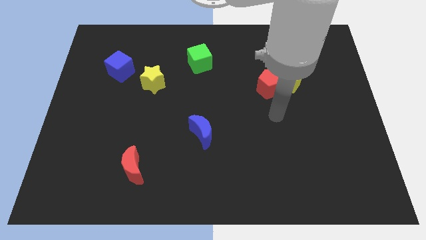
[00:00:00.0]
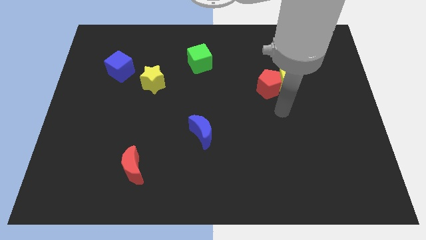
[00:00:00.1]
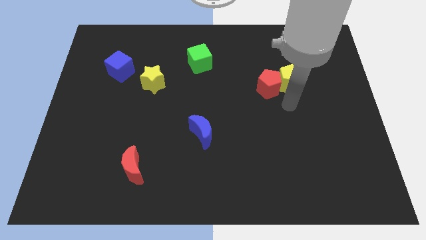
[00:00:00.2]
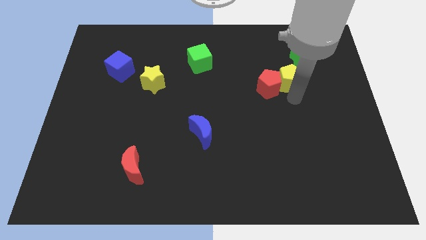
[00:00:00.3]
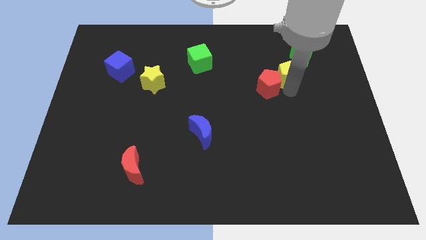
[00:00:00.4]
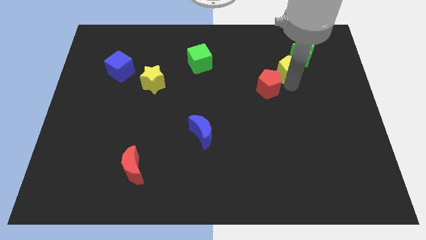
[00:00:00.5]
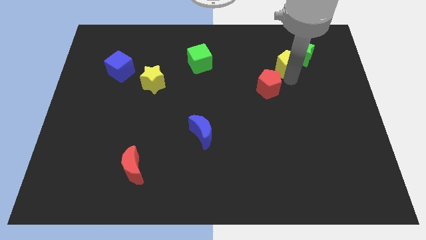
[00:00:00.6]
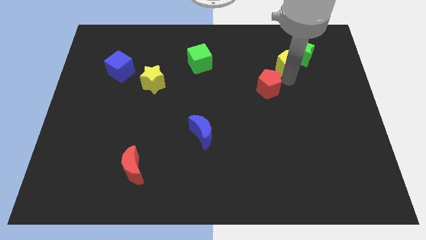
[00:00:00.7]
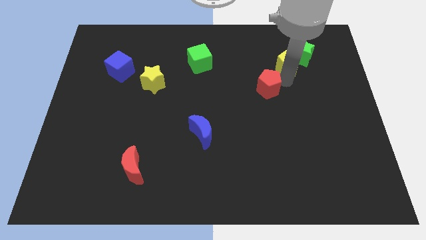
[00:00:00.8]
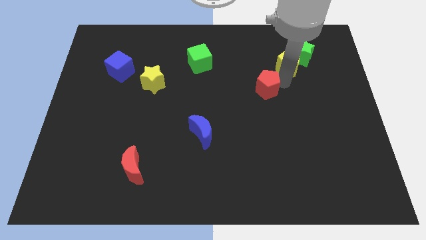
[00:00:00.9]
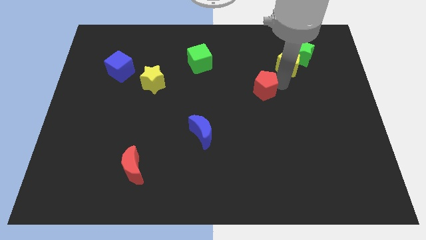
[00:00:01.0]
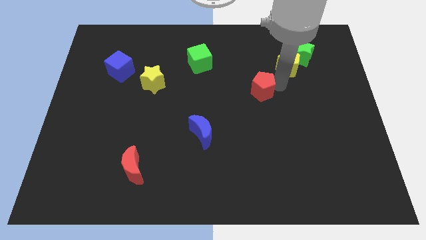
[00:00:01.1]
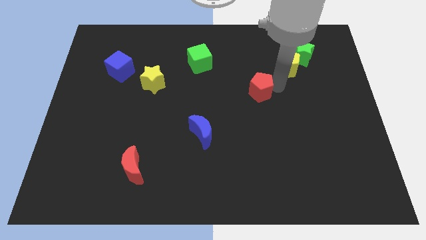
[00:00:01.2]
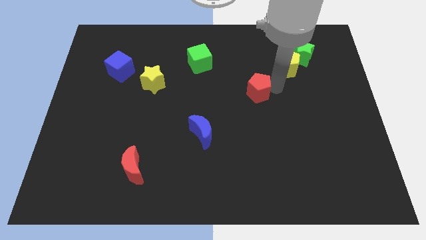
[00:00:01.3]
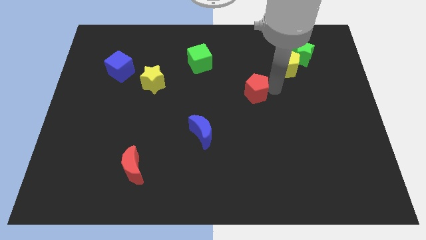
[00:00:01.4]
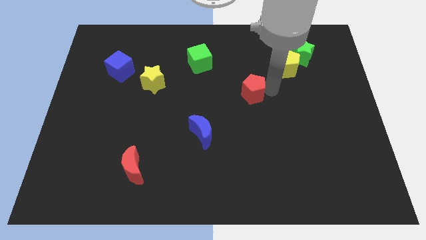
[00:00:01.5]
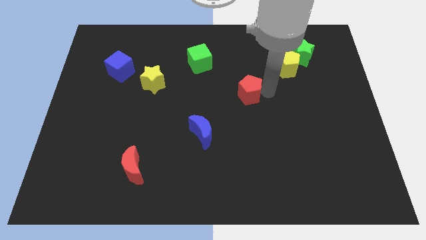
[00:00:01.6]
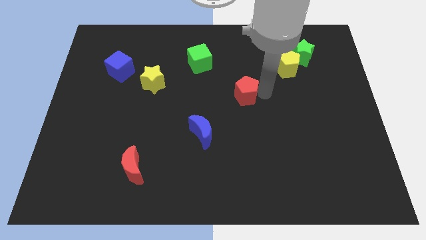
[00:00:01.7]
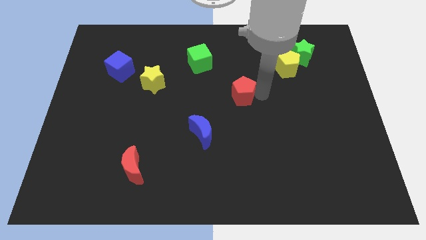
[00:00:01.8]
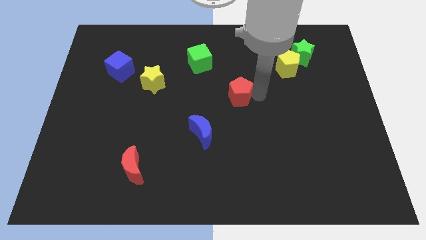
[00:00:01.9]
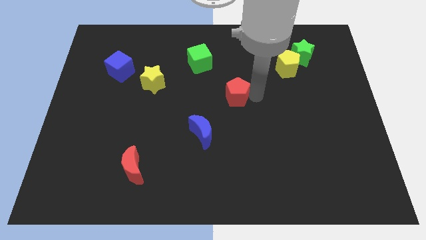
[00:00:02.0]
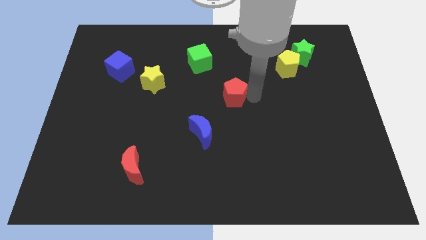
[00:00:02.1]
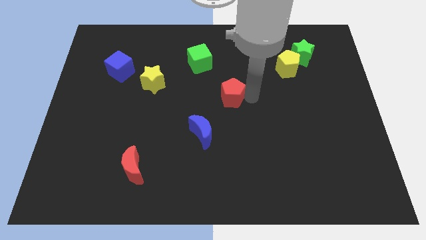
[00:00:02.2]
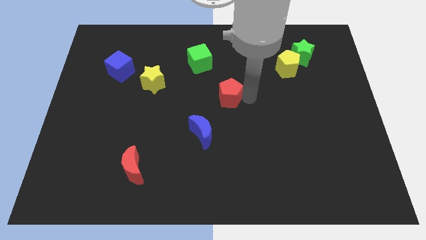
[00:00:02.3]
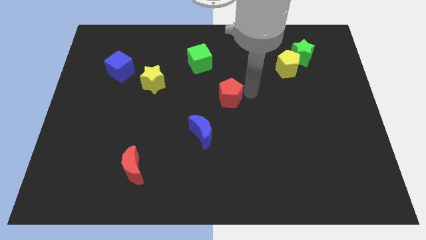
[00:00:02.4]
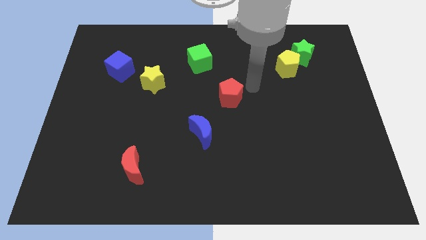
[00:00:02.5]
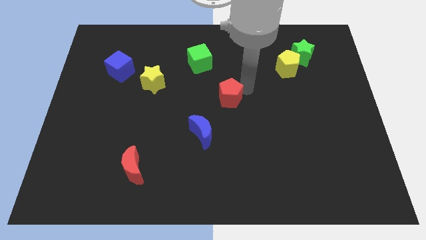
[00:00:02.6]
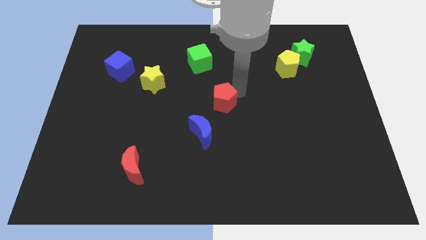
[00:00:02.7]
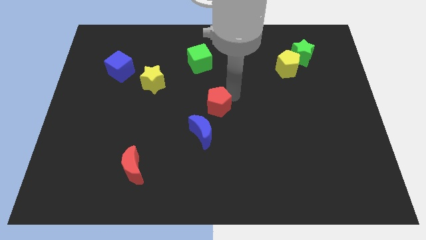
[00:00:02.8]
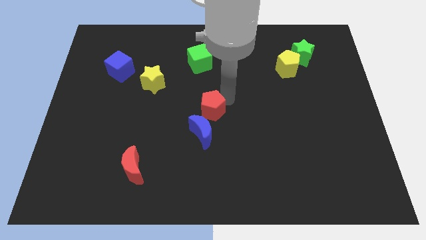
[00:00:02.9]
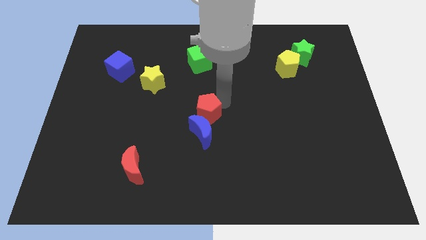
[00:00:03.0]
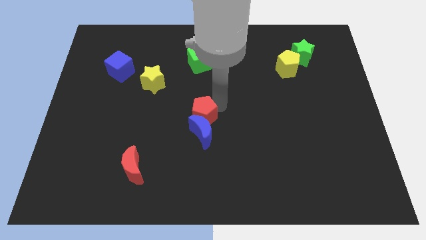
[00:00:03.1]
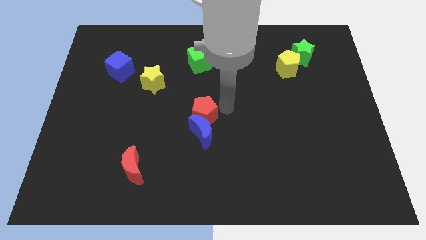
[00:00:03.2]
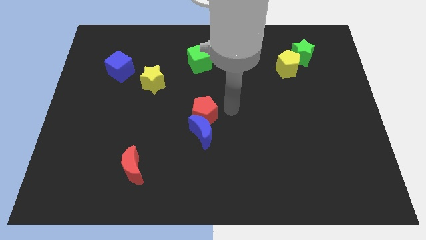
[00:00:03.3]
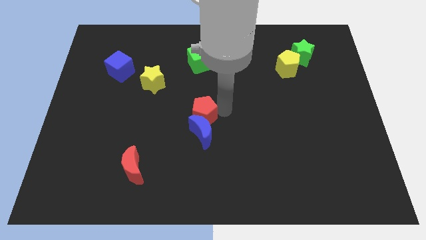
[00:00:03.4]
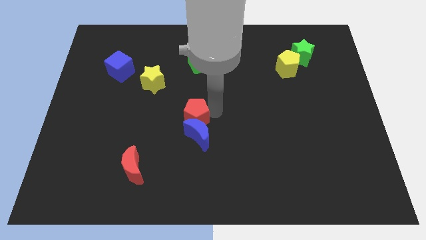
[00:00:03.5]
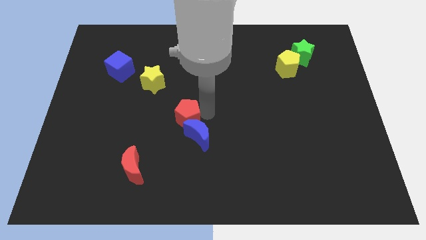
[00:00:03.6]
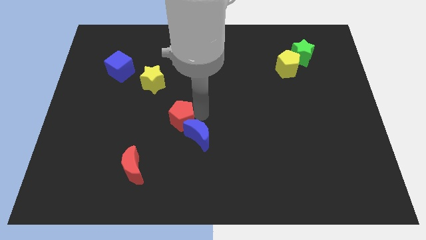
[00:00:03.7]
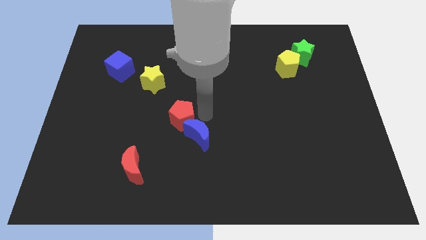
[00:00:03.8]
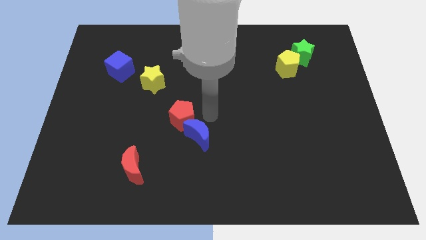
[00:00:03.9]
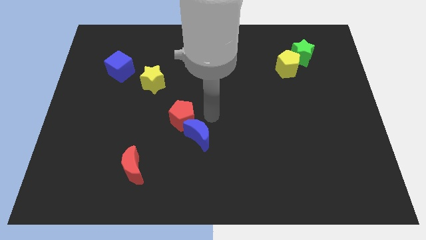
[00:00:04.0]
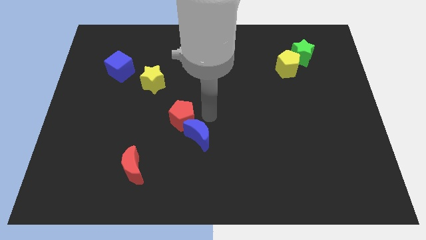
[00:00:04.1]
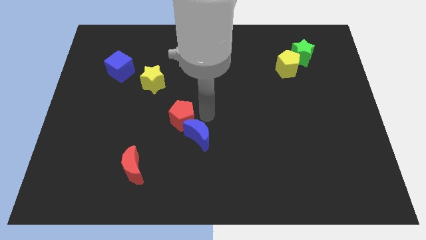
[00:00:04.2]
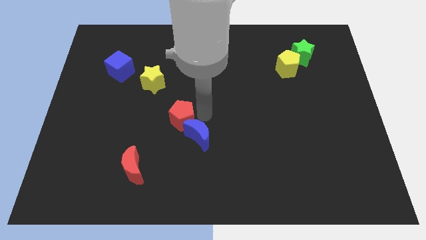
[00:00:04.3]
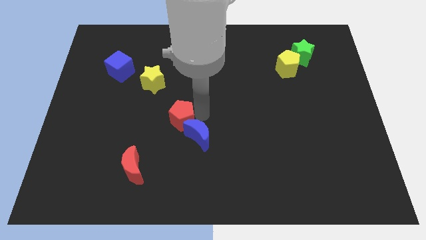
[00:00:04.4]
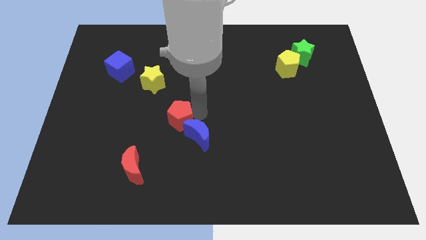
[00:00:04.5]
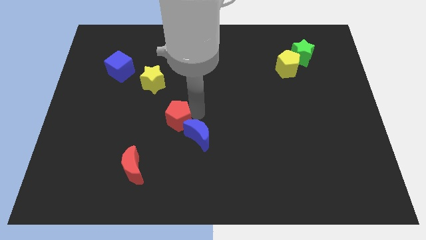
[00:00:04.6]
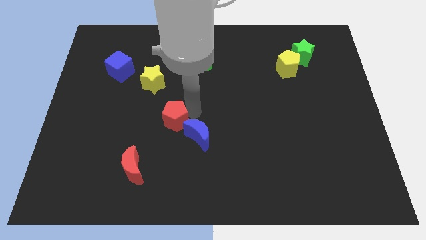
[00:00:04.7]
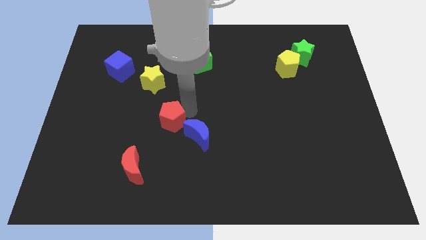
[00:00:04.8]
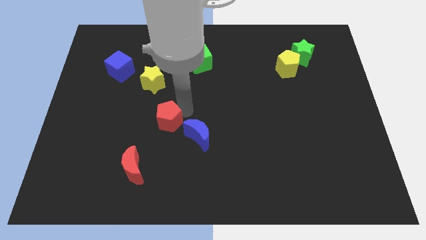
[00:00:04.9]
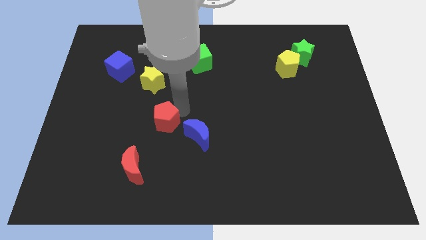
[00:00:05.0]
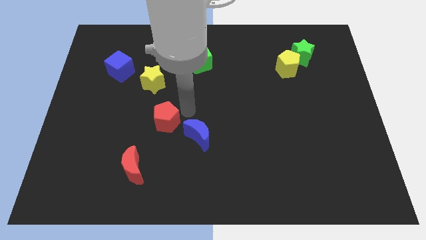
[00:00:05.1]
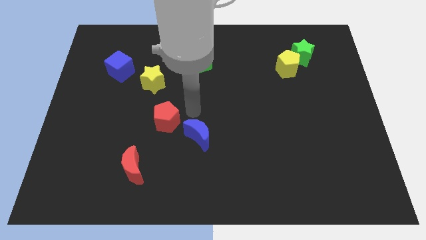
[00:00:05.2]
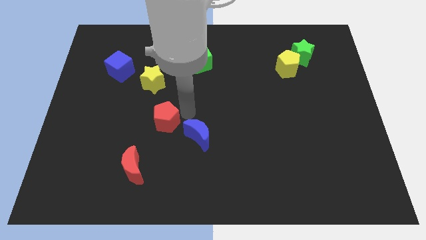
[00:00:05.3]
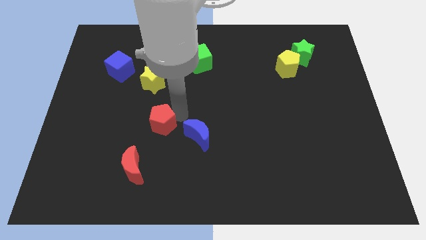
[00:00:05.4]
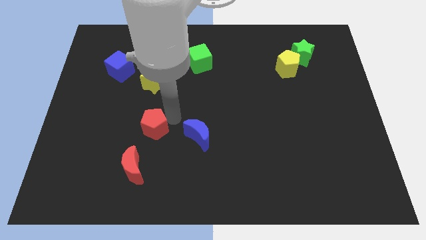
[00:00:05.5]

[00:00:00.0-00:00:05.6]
push the red pentagon to the top of the red moon

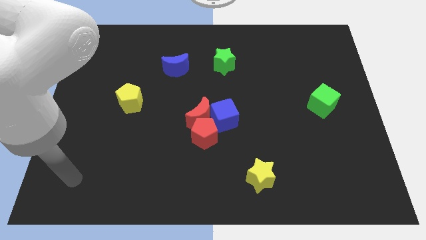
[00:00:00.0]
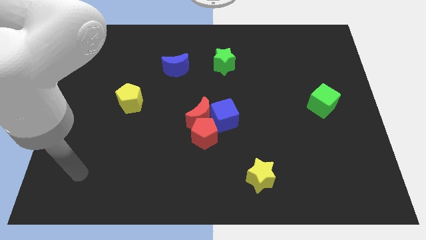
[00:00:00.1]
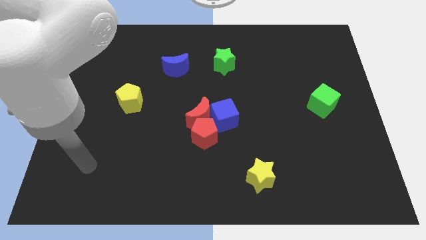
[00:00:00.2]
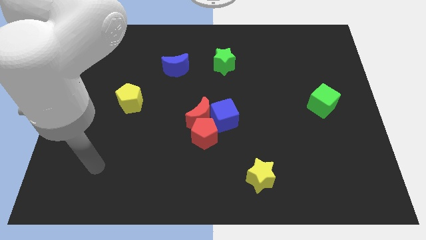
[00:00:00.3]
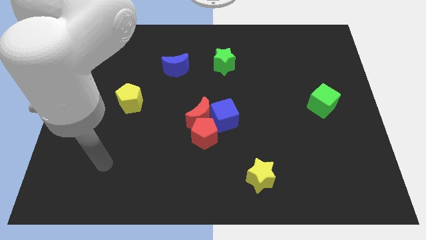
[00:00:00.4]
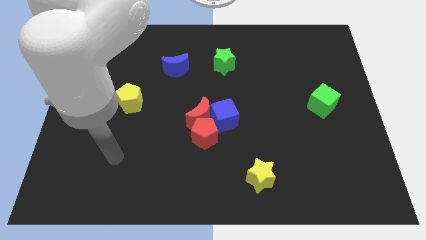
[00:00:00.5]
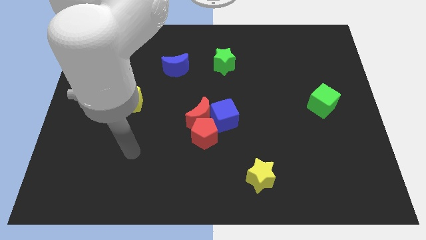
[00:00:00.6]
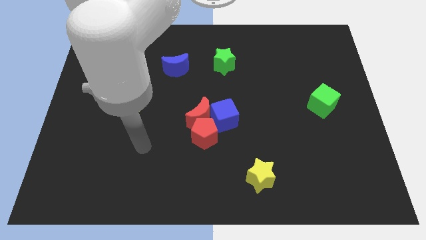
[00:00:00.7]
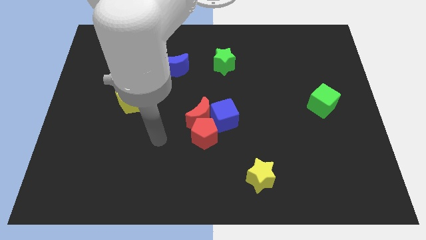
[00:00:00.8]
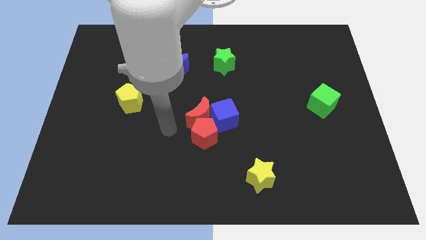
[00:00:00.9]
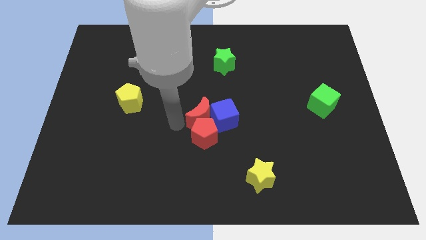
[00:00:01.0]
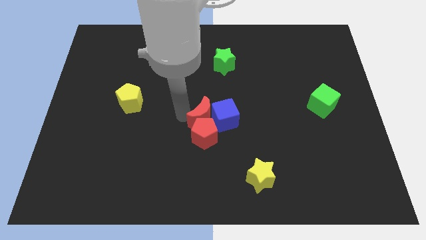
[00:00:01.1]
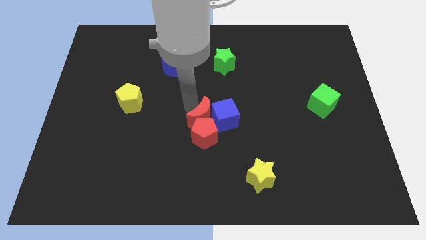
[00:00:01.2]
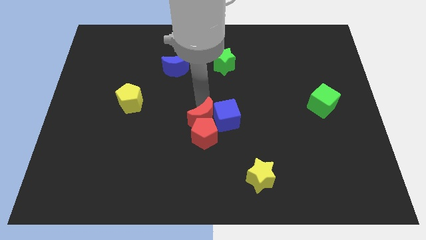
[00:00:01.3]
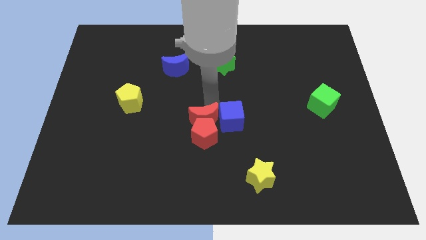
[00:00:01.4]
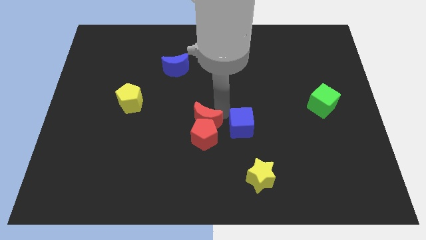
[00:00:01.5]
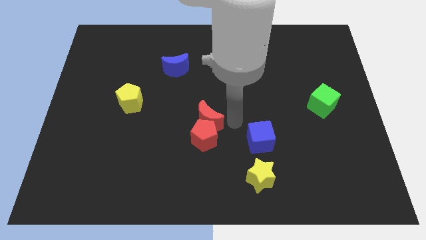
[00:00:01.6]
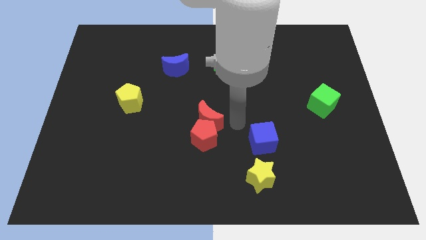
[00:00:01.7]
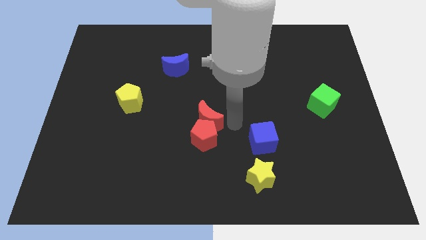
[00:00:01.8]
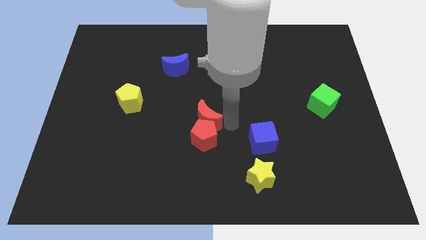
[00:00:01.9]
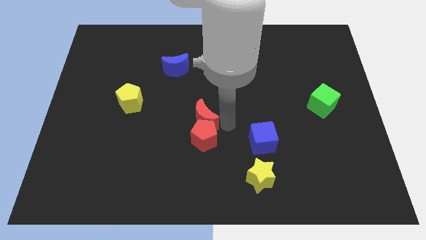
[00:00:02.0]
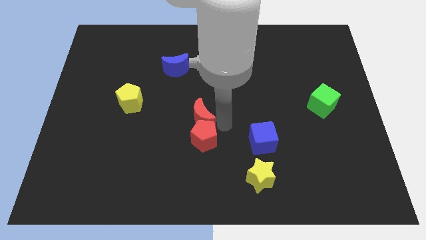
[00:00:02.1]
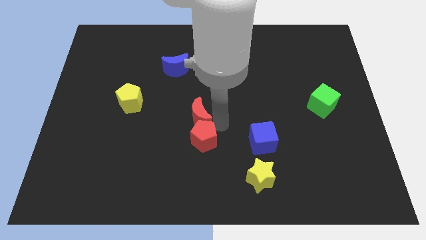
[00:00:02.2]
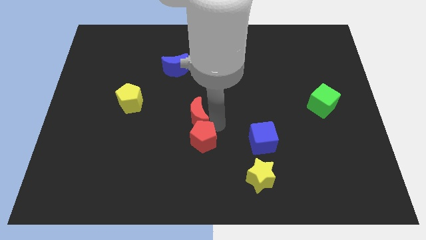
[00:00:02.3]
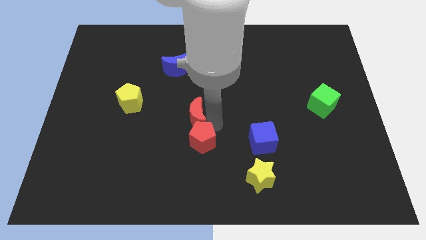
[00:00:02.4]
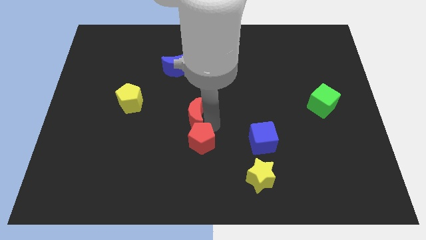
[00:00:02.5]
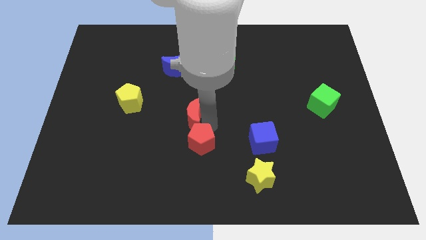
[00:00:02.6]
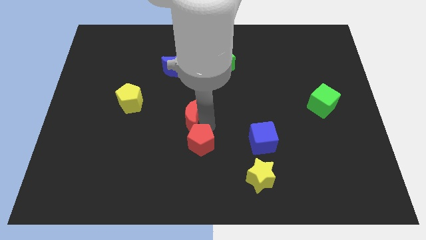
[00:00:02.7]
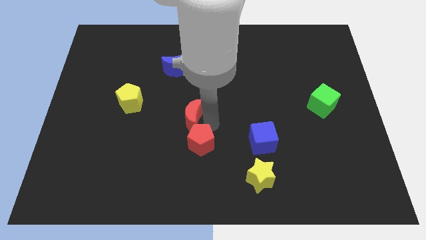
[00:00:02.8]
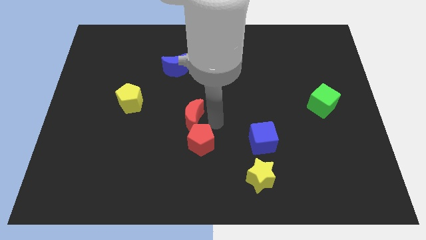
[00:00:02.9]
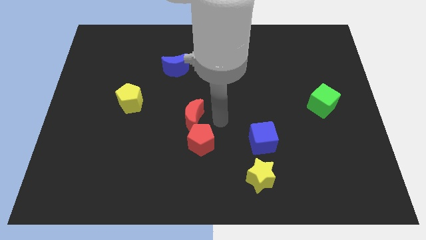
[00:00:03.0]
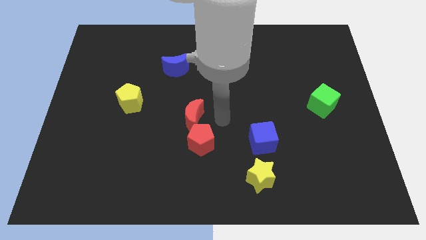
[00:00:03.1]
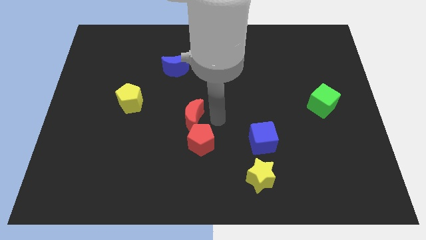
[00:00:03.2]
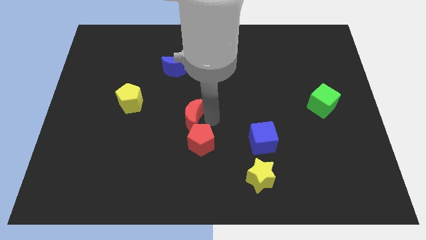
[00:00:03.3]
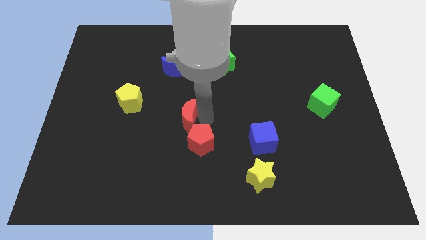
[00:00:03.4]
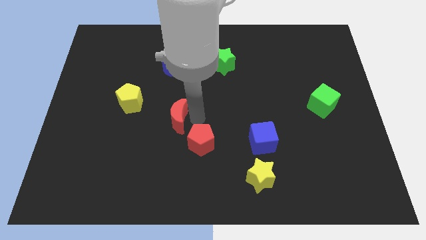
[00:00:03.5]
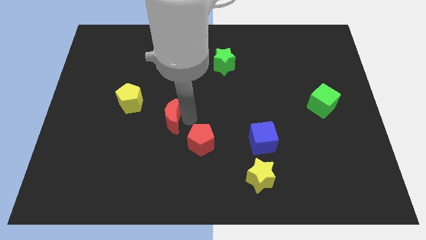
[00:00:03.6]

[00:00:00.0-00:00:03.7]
slide the red moon diagonally down and to the right of the yellow pentagon
